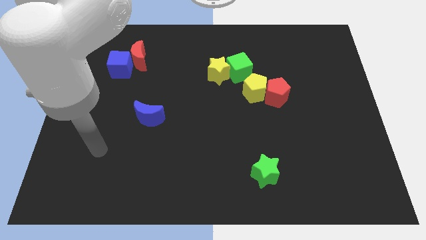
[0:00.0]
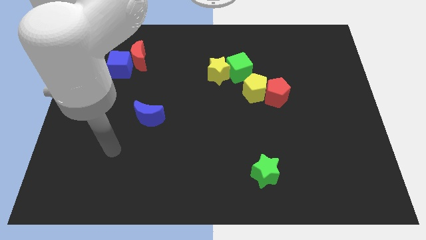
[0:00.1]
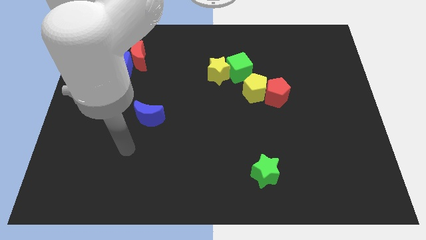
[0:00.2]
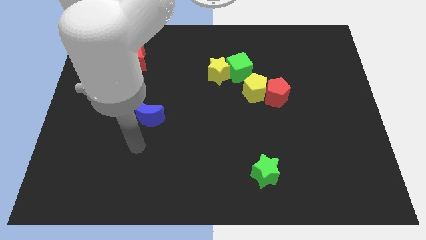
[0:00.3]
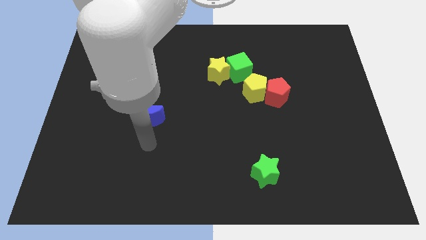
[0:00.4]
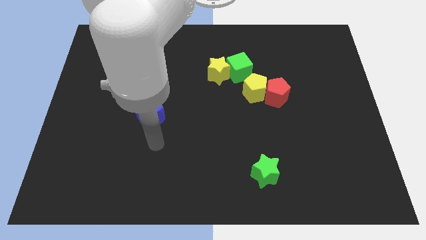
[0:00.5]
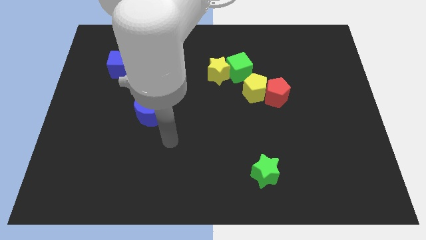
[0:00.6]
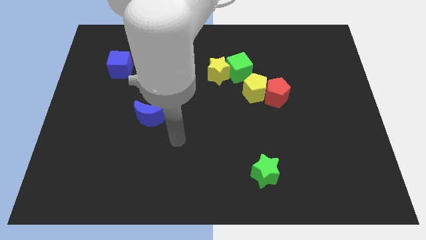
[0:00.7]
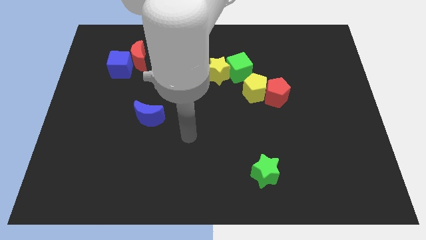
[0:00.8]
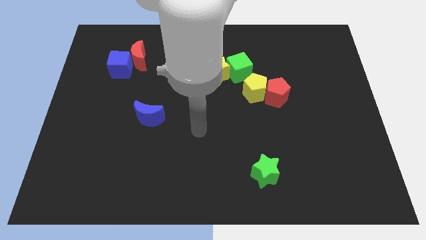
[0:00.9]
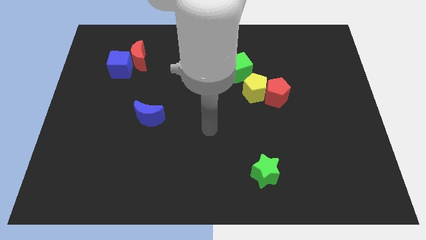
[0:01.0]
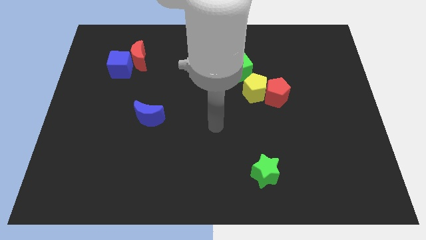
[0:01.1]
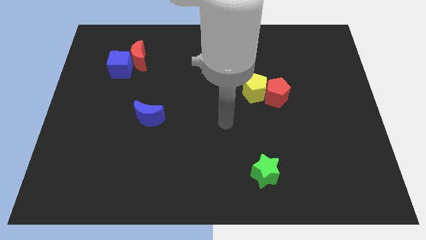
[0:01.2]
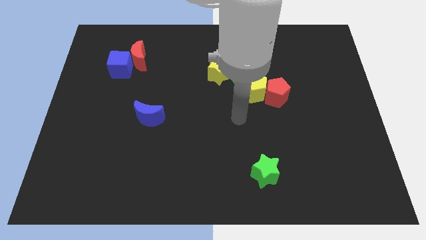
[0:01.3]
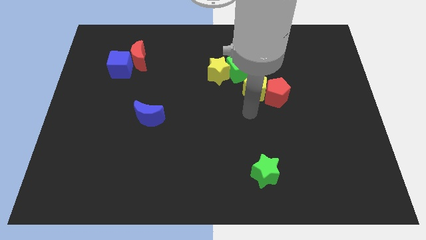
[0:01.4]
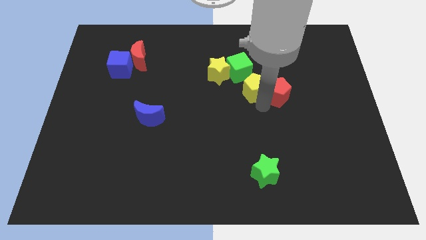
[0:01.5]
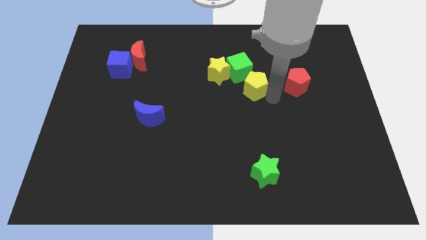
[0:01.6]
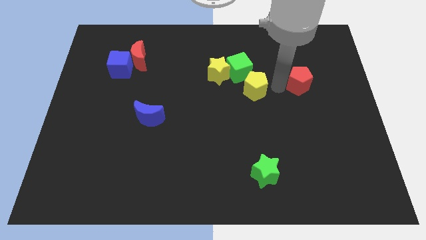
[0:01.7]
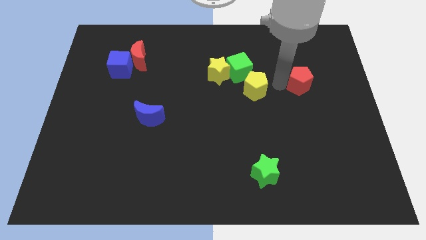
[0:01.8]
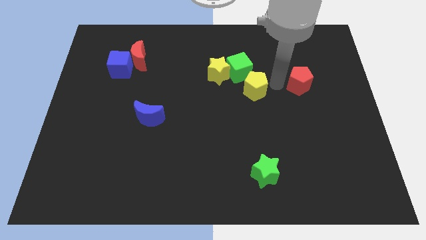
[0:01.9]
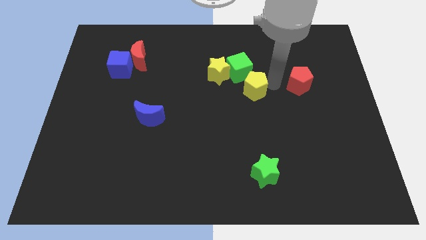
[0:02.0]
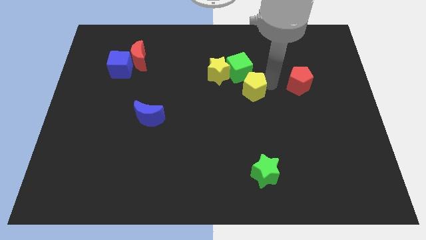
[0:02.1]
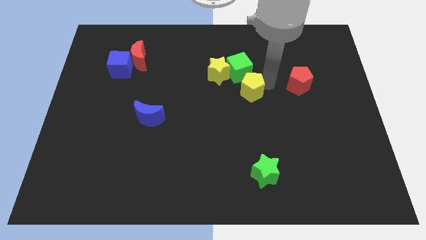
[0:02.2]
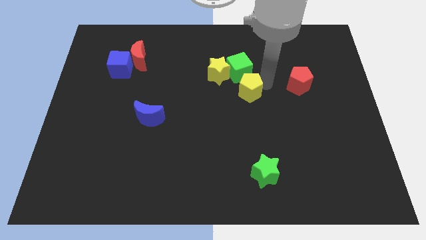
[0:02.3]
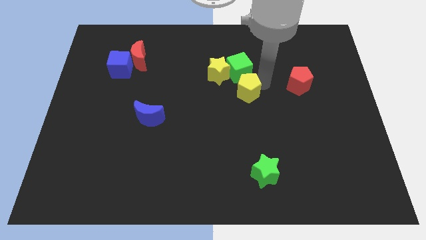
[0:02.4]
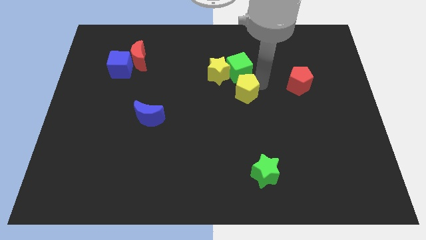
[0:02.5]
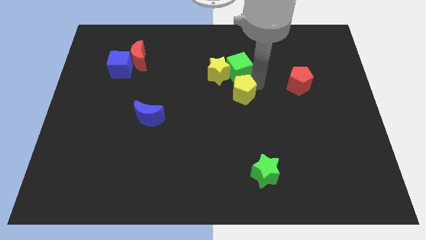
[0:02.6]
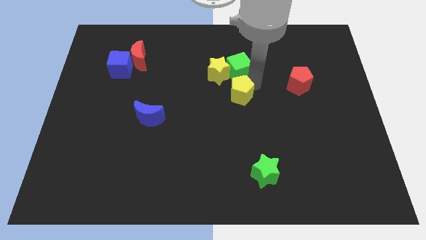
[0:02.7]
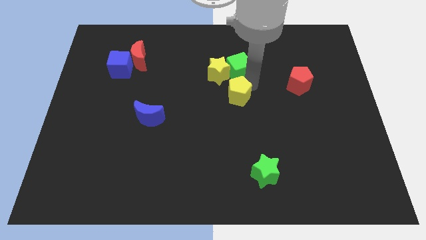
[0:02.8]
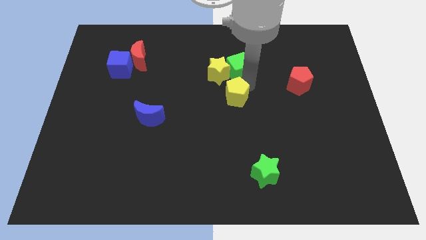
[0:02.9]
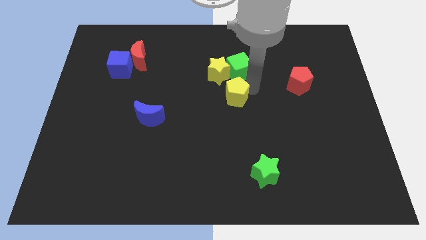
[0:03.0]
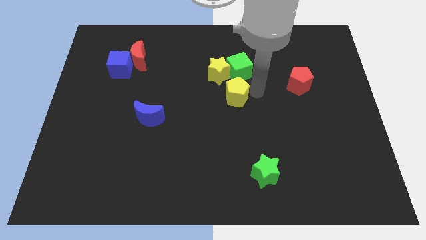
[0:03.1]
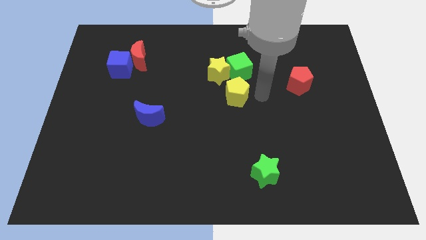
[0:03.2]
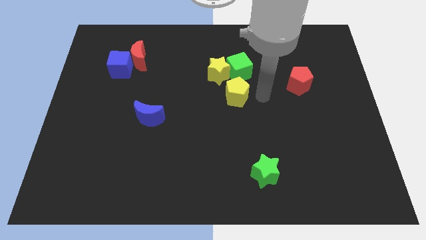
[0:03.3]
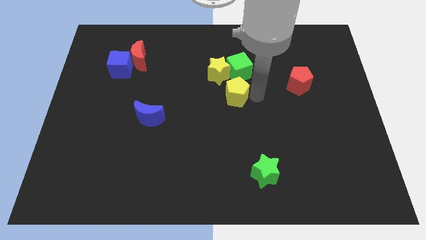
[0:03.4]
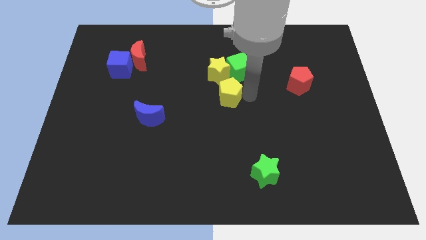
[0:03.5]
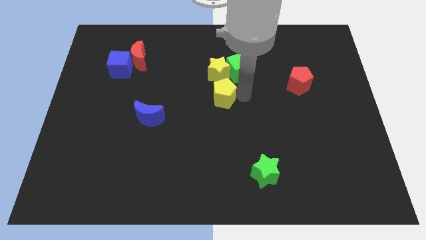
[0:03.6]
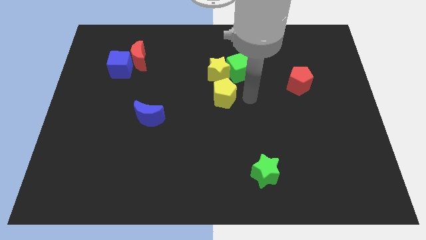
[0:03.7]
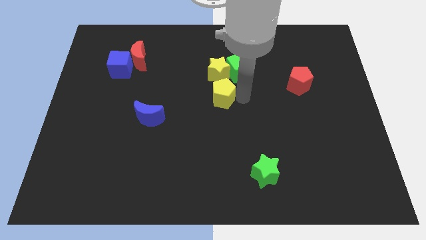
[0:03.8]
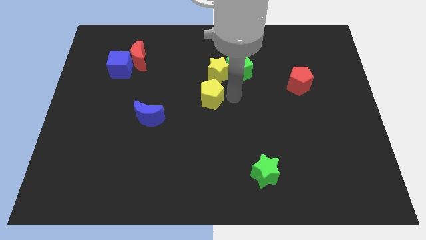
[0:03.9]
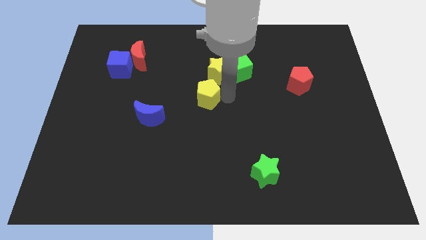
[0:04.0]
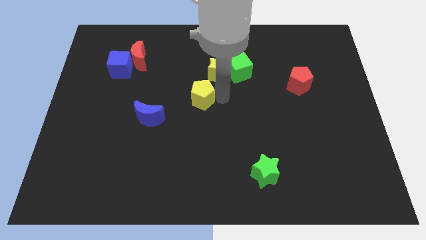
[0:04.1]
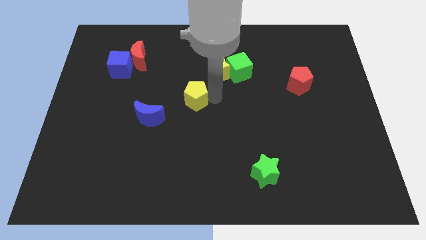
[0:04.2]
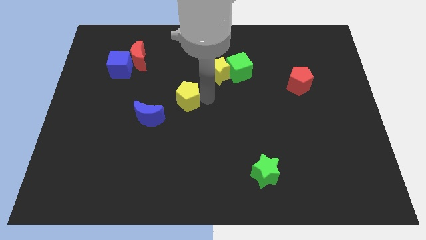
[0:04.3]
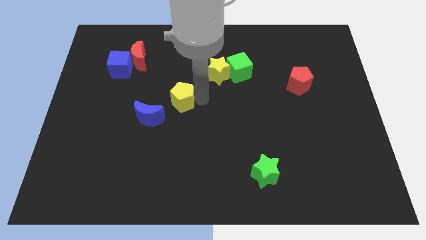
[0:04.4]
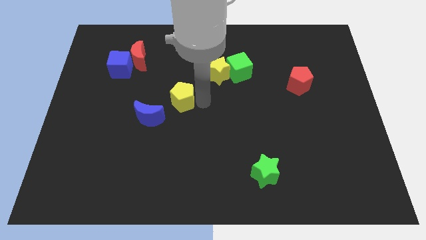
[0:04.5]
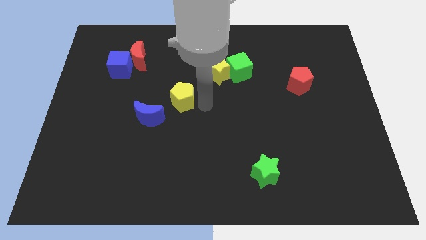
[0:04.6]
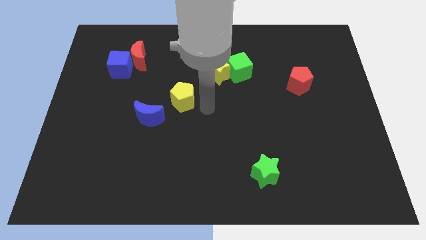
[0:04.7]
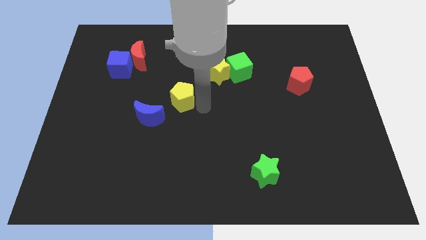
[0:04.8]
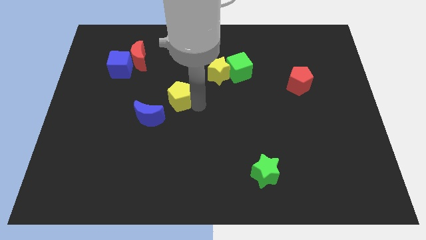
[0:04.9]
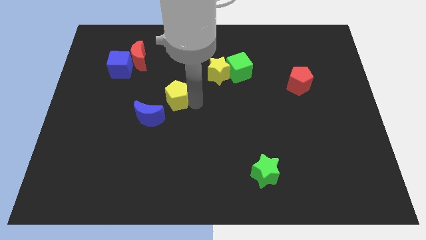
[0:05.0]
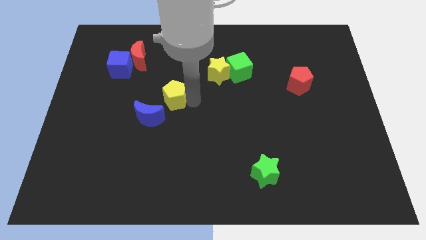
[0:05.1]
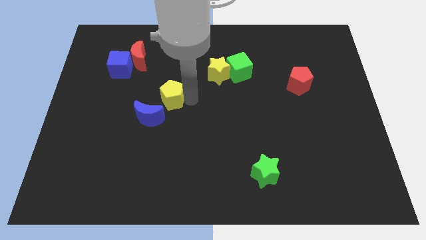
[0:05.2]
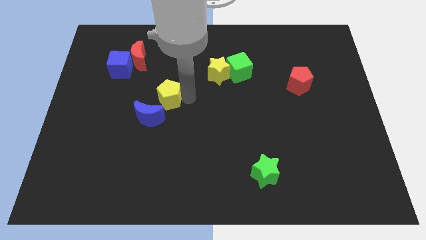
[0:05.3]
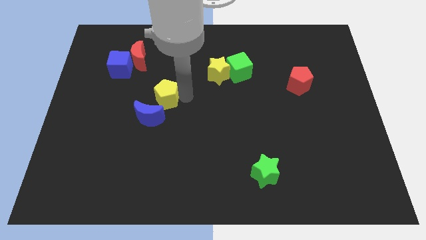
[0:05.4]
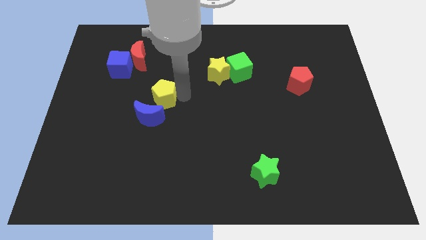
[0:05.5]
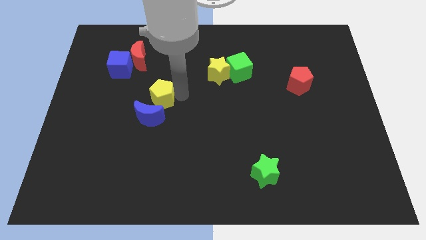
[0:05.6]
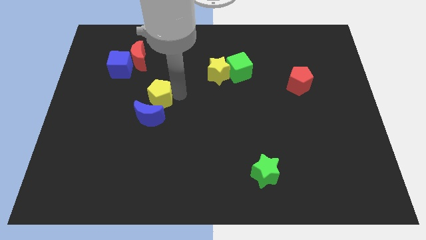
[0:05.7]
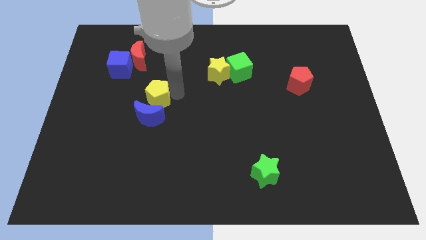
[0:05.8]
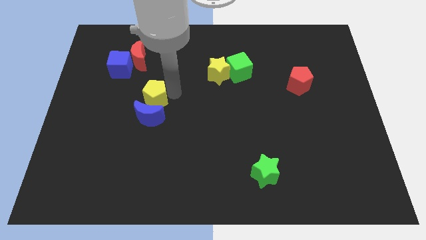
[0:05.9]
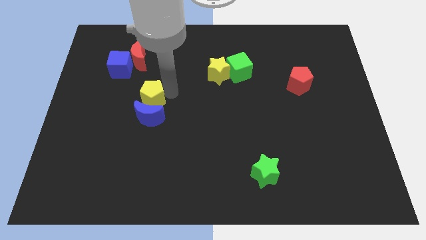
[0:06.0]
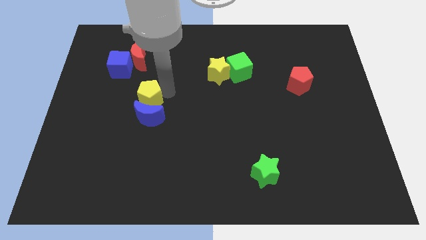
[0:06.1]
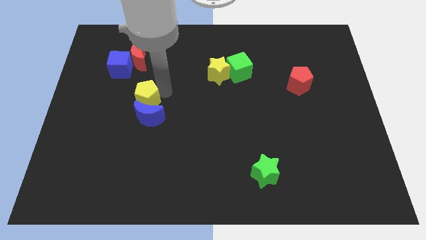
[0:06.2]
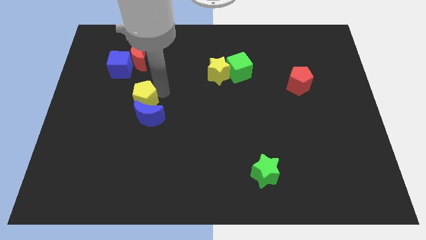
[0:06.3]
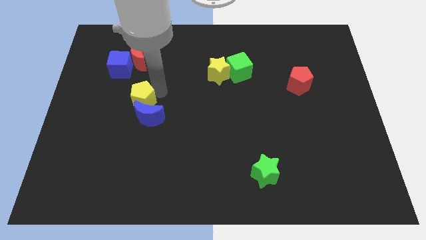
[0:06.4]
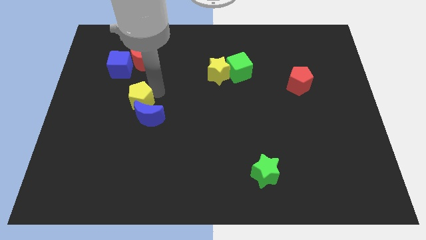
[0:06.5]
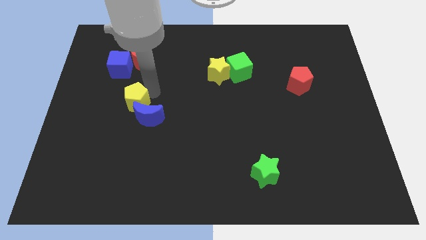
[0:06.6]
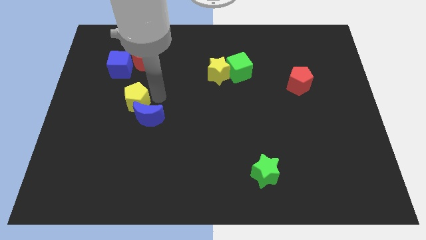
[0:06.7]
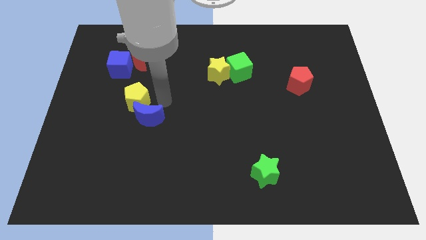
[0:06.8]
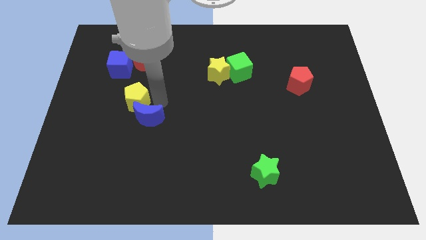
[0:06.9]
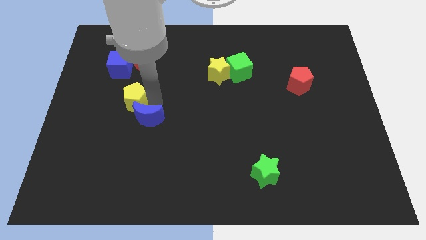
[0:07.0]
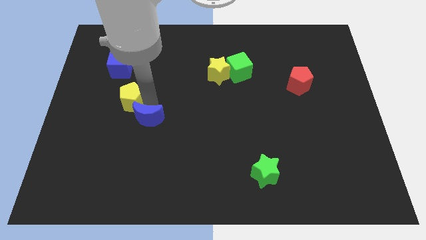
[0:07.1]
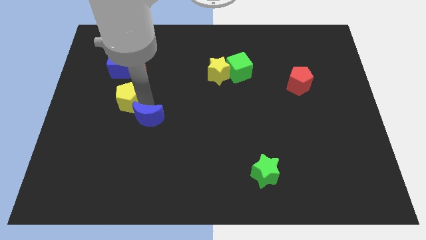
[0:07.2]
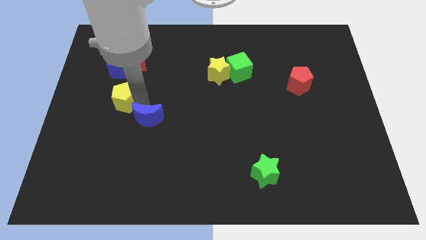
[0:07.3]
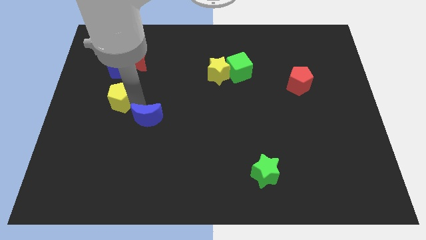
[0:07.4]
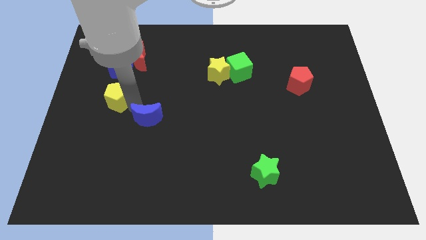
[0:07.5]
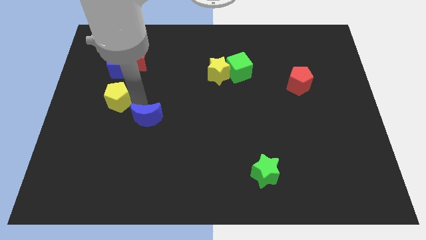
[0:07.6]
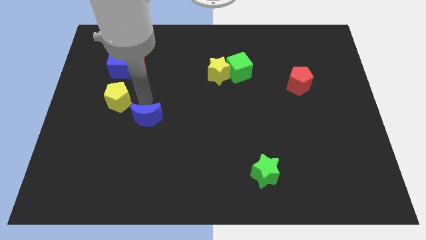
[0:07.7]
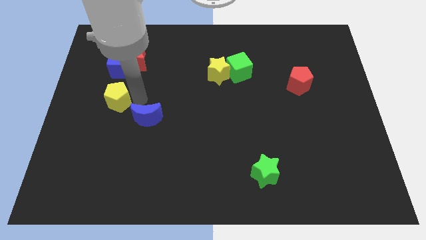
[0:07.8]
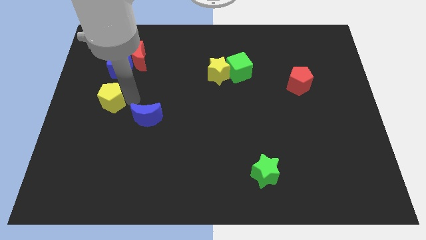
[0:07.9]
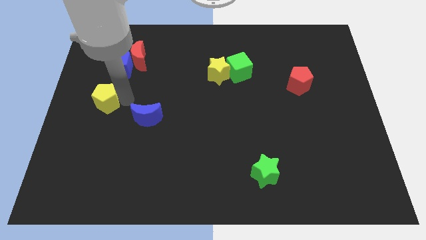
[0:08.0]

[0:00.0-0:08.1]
put the yellow pentagon to the center left
